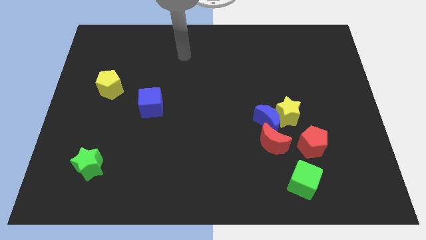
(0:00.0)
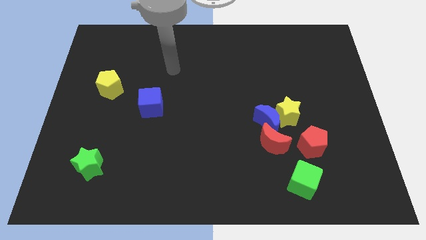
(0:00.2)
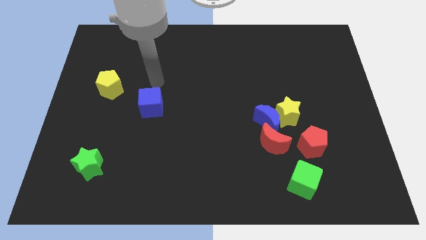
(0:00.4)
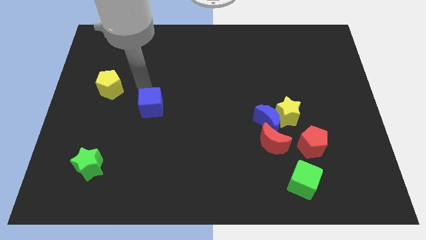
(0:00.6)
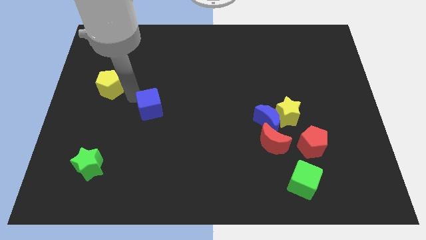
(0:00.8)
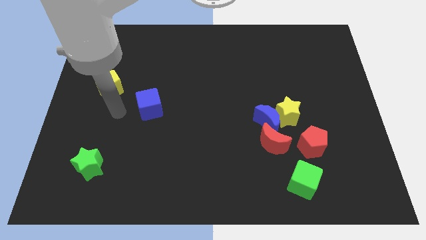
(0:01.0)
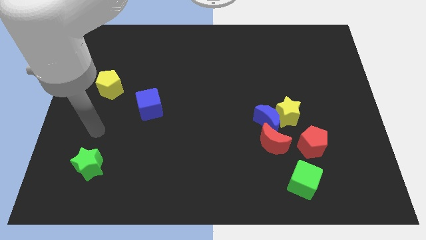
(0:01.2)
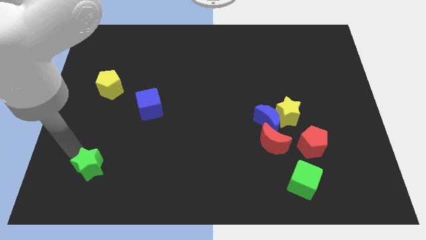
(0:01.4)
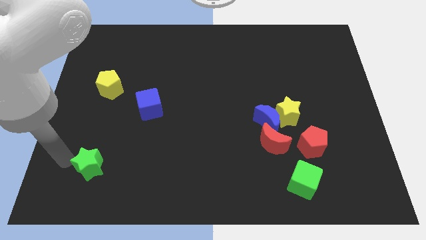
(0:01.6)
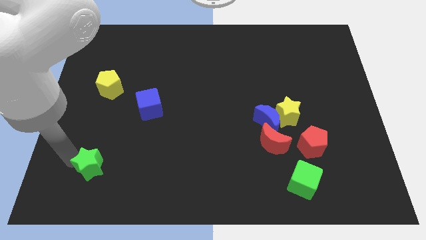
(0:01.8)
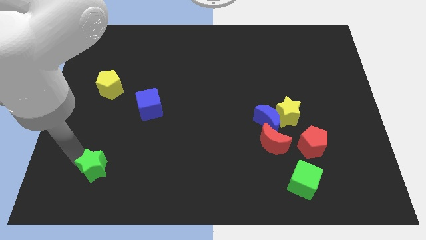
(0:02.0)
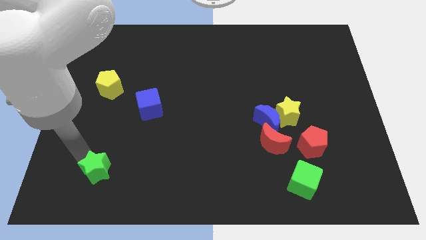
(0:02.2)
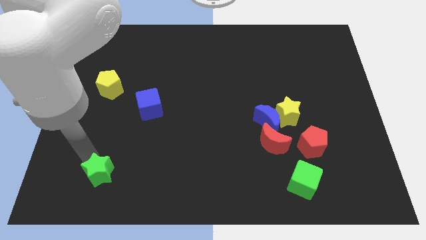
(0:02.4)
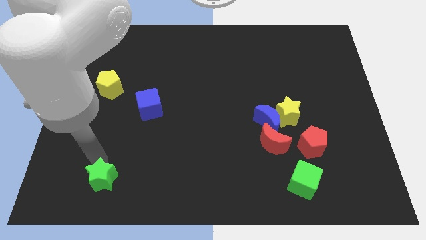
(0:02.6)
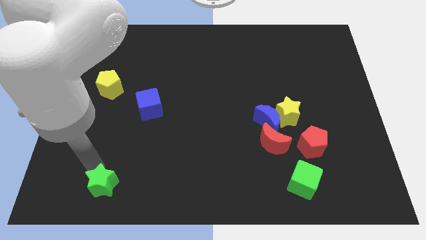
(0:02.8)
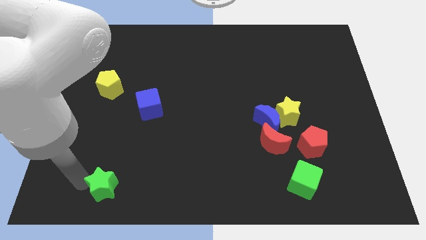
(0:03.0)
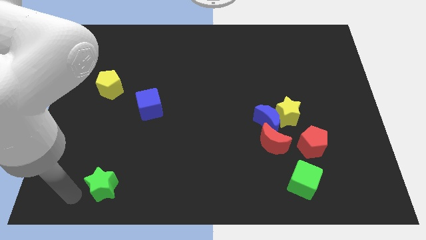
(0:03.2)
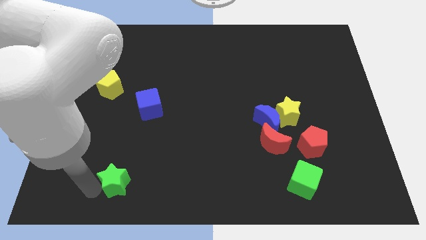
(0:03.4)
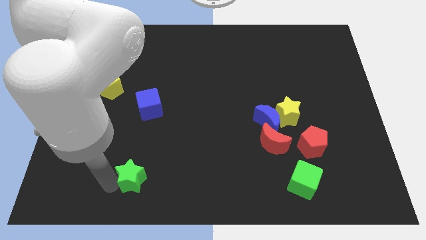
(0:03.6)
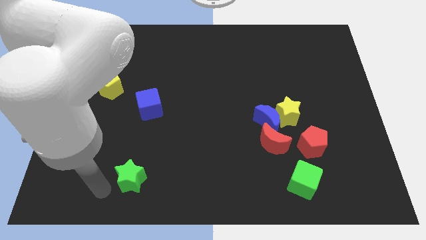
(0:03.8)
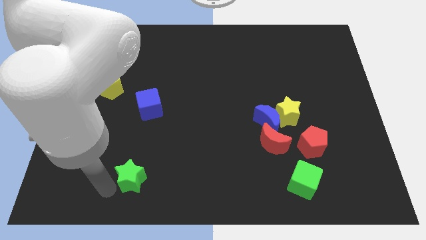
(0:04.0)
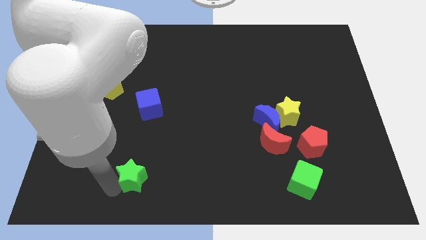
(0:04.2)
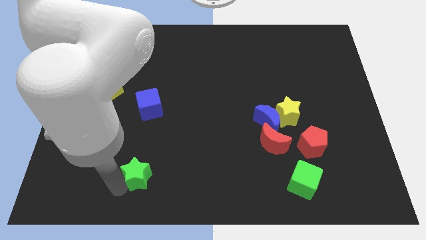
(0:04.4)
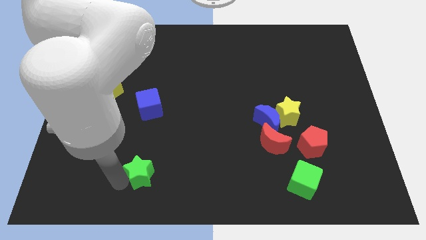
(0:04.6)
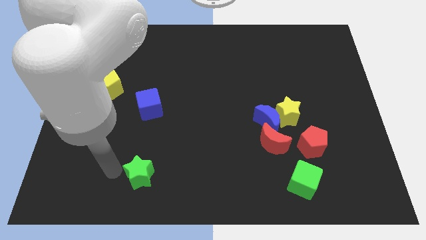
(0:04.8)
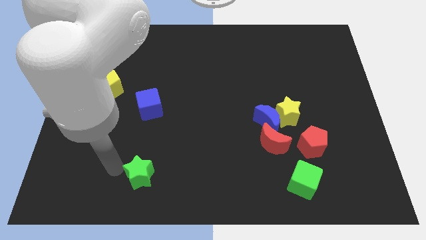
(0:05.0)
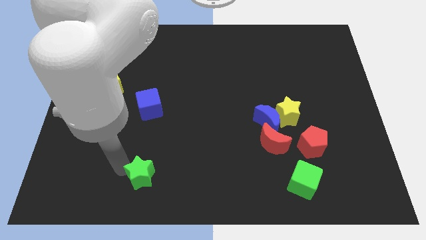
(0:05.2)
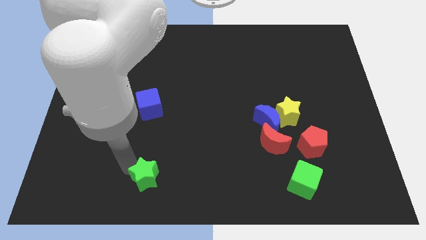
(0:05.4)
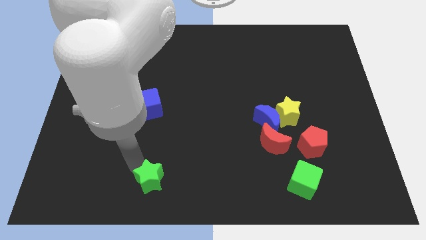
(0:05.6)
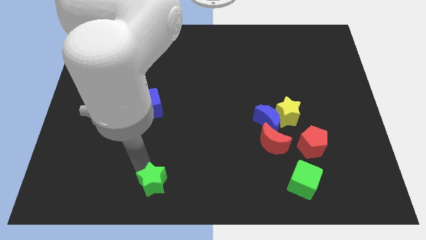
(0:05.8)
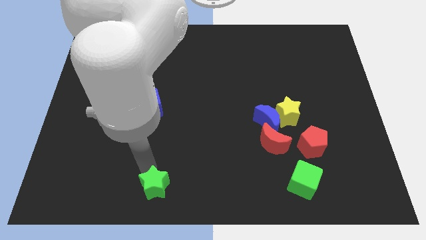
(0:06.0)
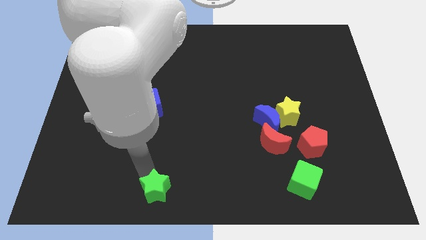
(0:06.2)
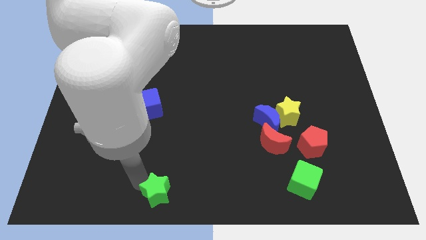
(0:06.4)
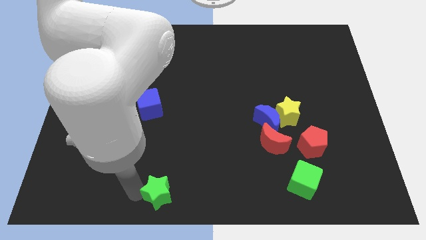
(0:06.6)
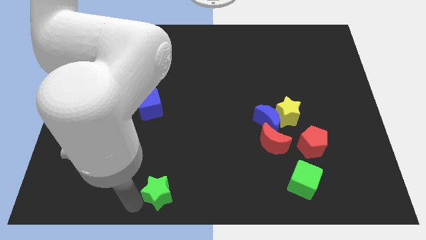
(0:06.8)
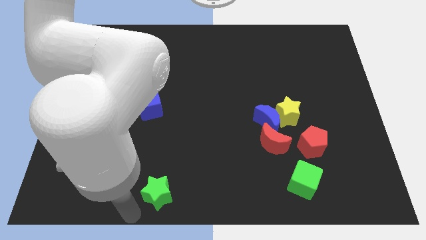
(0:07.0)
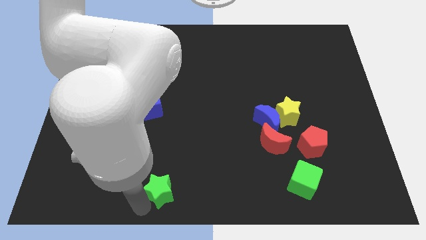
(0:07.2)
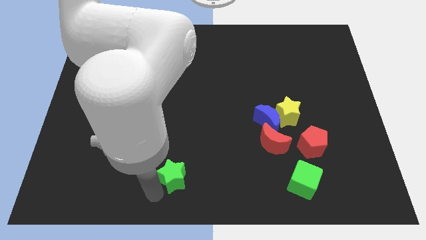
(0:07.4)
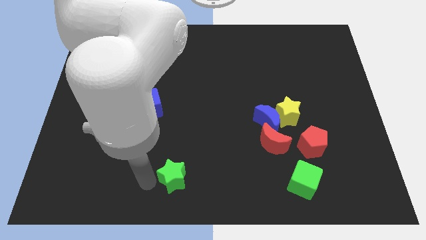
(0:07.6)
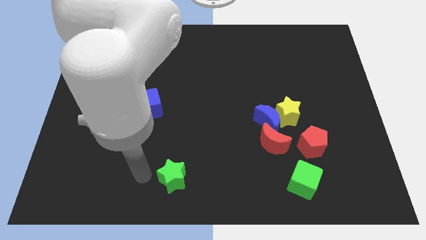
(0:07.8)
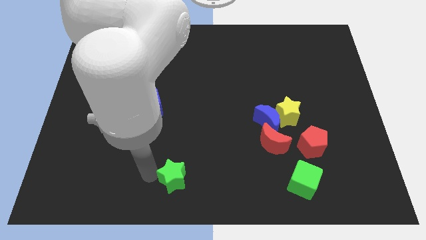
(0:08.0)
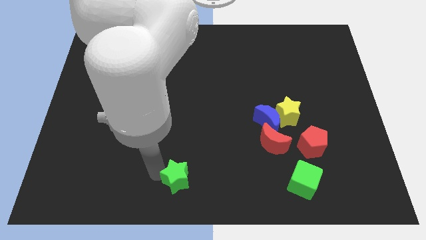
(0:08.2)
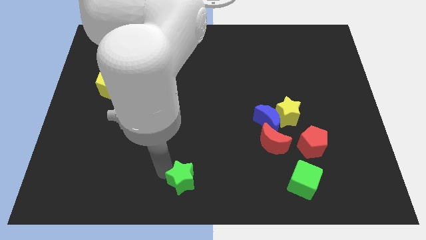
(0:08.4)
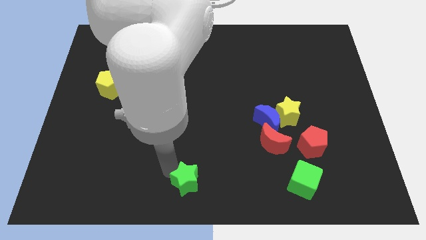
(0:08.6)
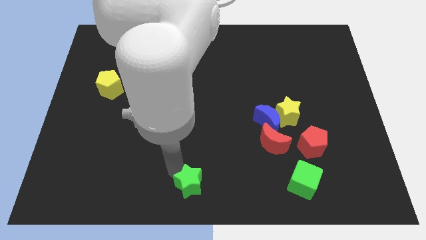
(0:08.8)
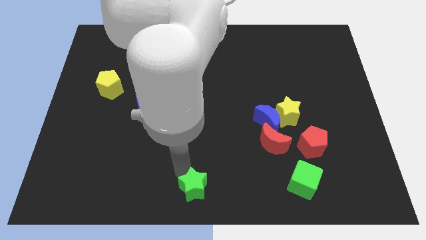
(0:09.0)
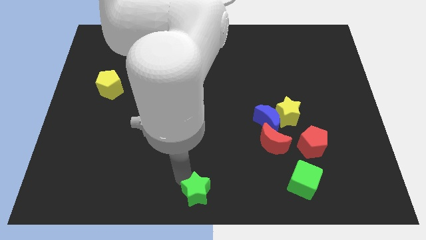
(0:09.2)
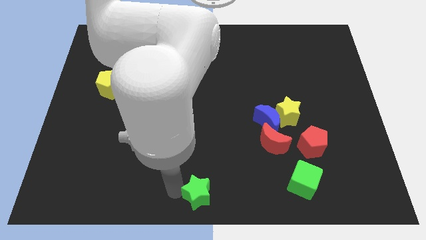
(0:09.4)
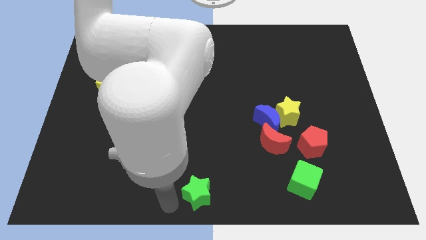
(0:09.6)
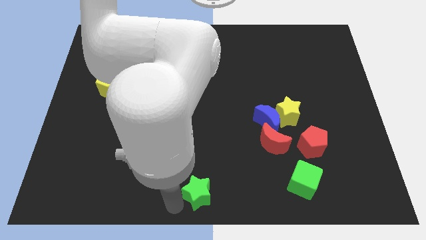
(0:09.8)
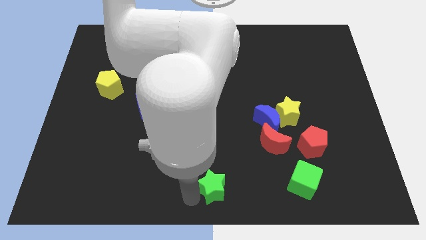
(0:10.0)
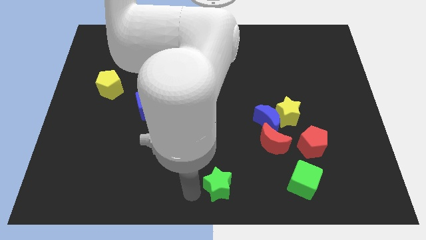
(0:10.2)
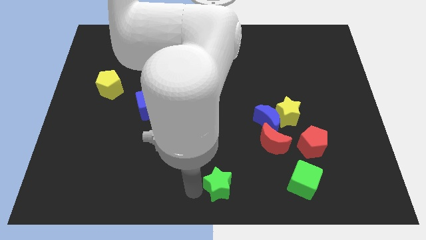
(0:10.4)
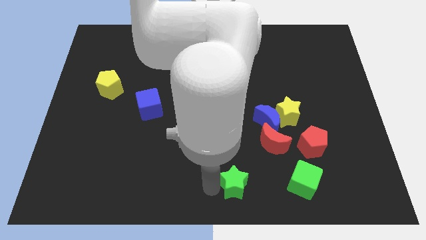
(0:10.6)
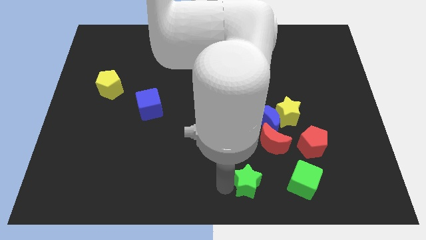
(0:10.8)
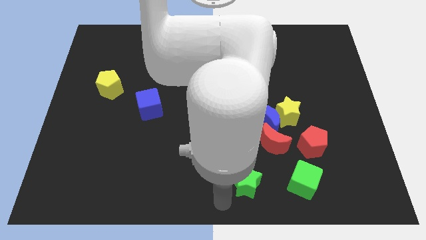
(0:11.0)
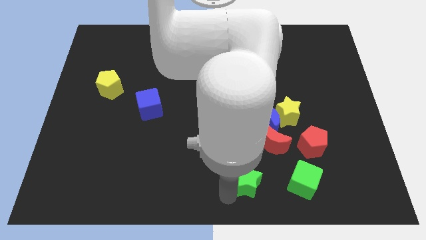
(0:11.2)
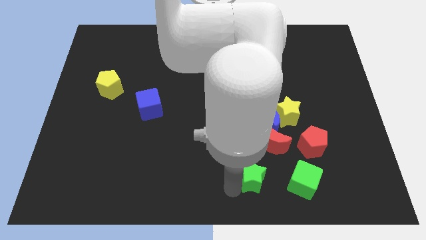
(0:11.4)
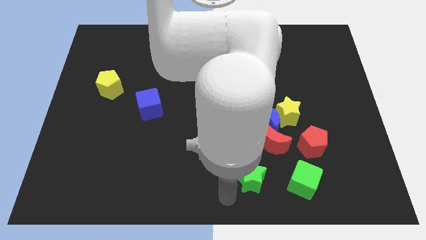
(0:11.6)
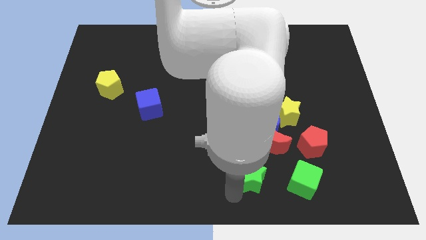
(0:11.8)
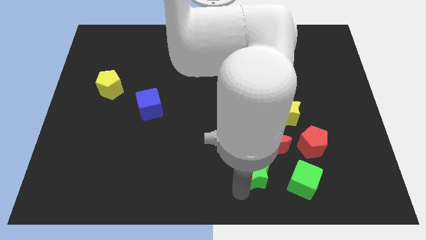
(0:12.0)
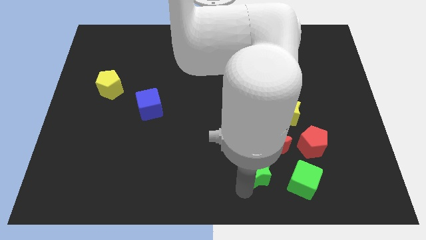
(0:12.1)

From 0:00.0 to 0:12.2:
move the green star to the top left side of the green cube
